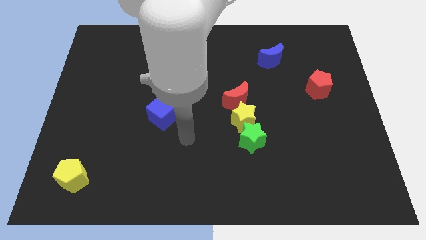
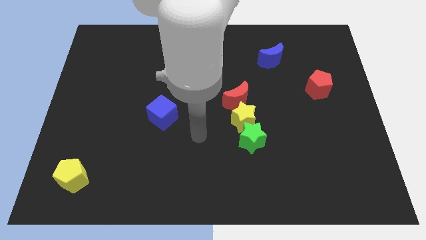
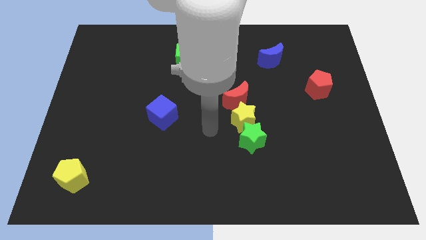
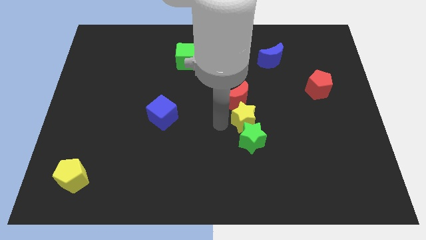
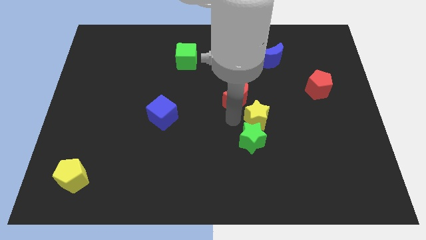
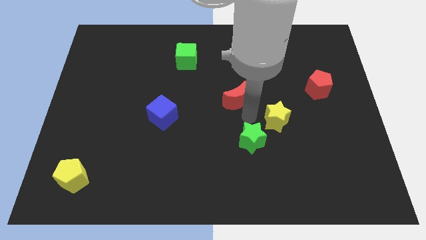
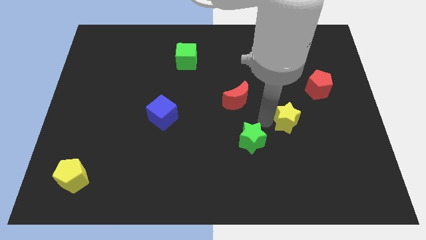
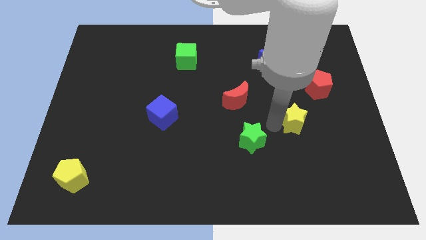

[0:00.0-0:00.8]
move the green star away from the yellow star

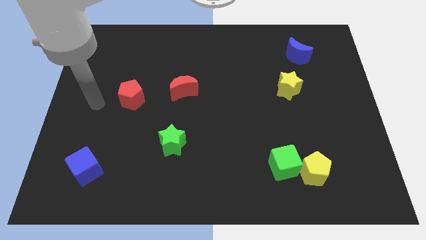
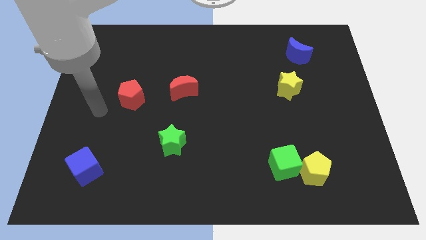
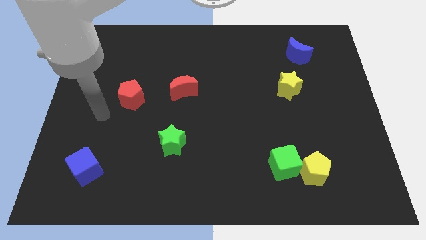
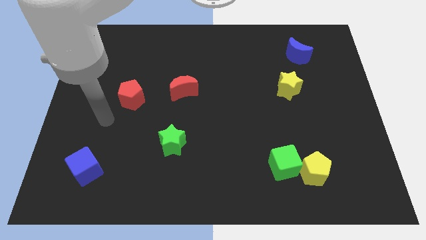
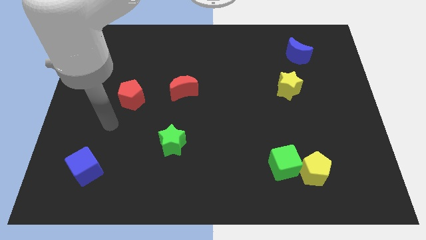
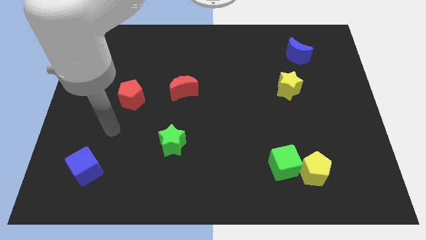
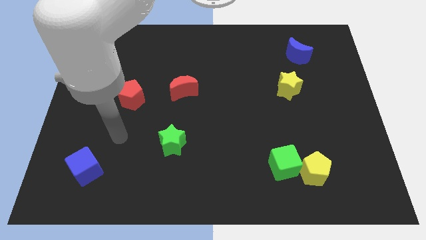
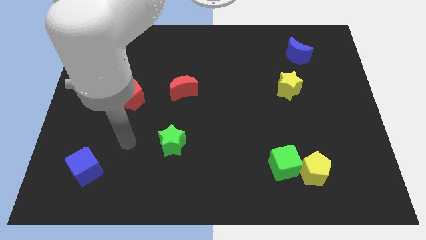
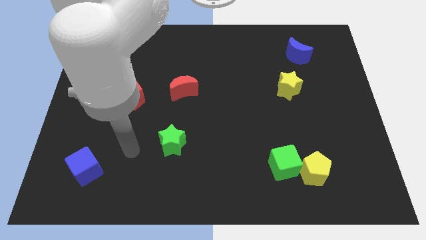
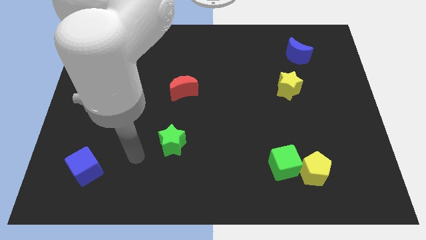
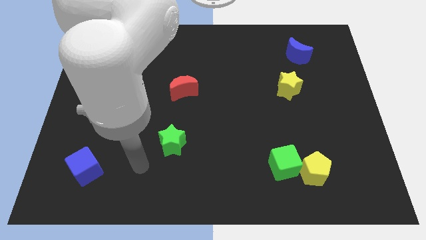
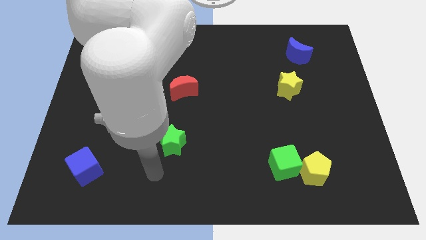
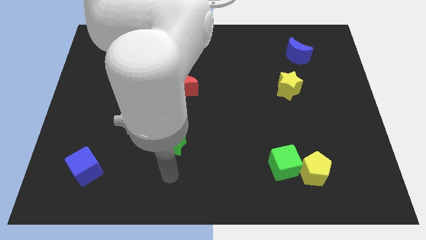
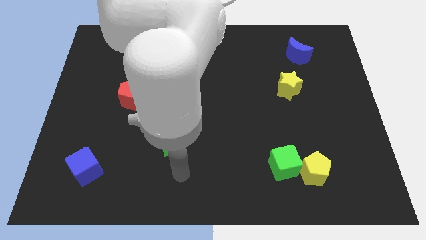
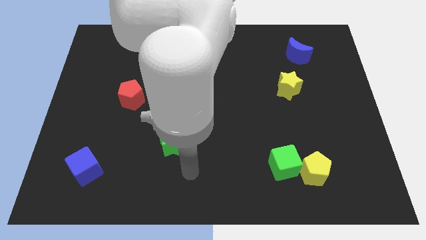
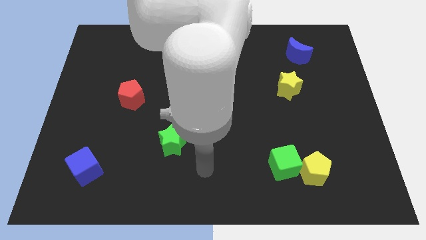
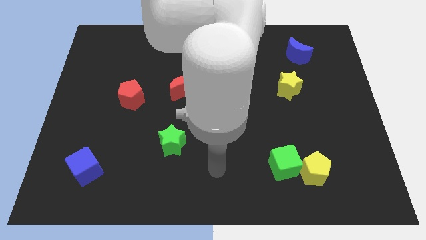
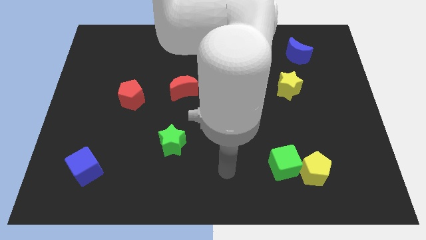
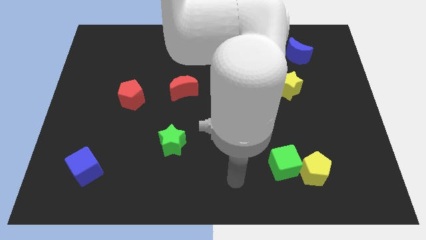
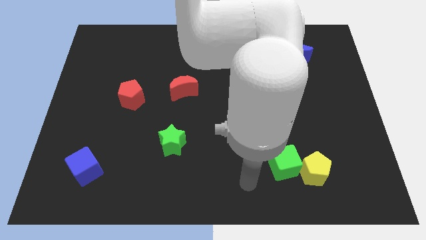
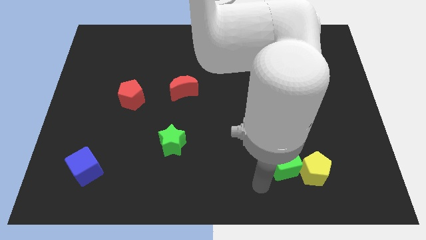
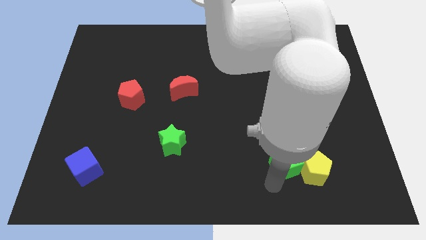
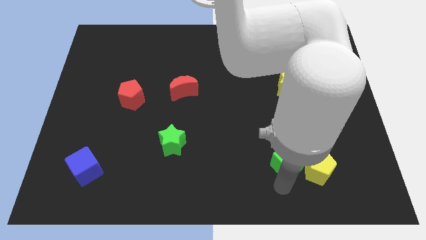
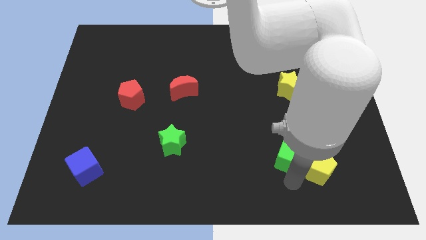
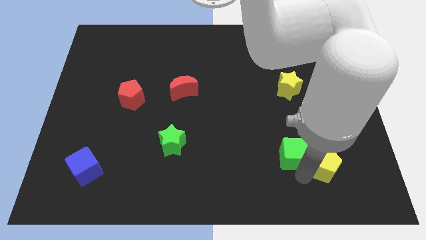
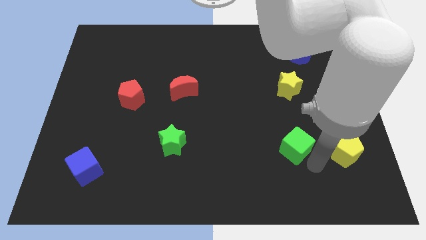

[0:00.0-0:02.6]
separate the green cube from the yellow pentagon

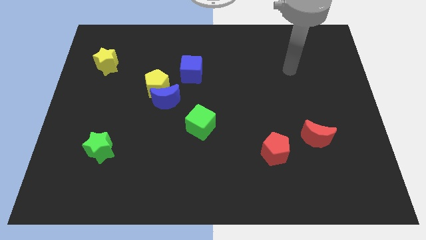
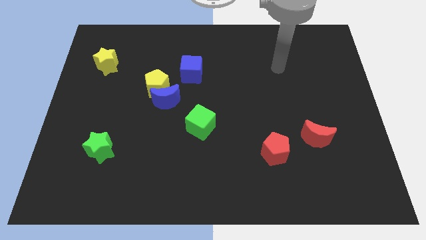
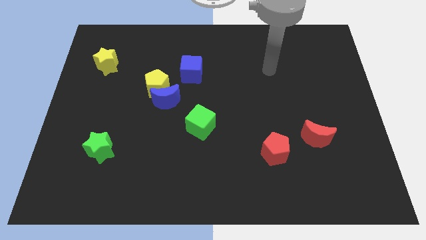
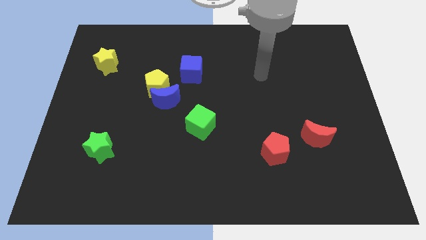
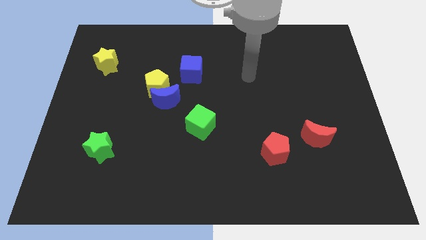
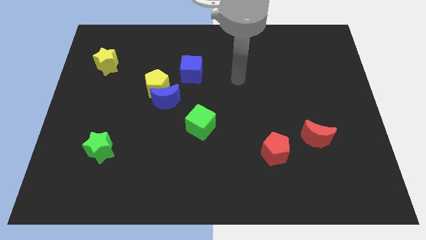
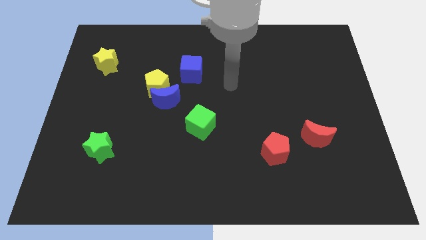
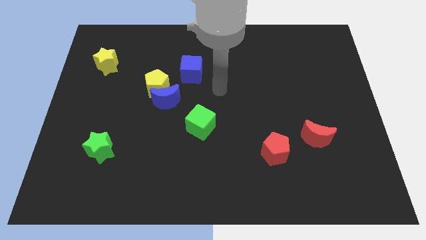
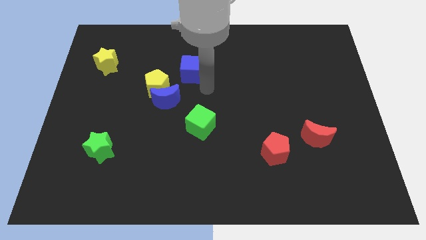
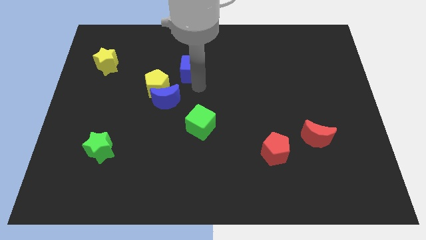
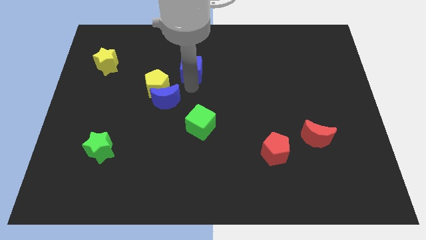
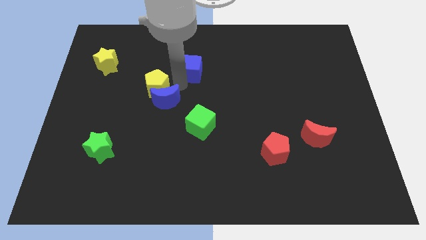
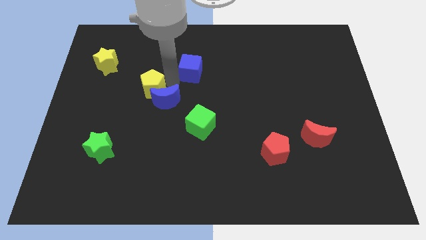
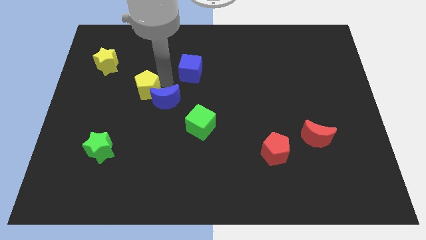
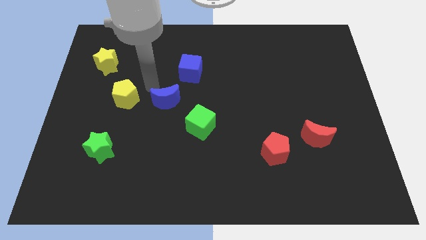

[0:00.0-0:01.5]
separate the blue moon from the yellow pentagon

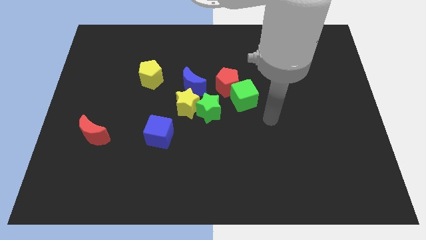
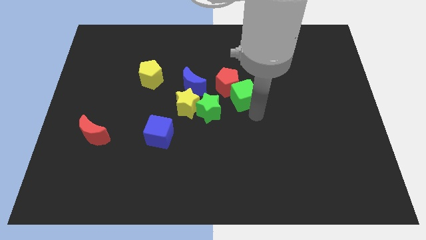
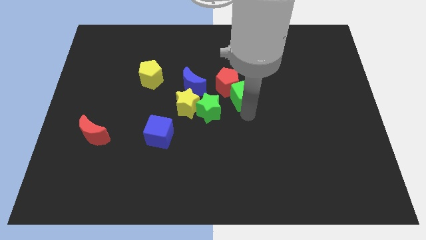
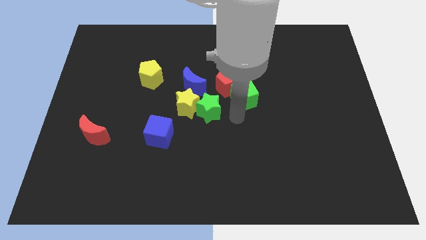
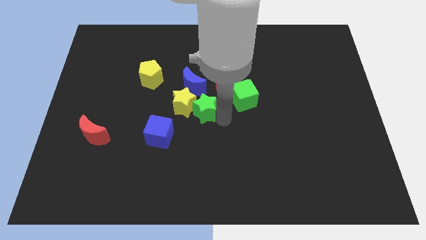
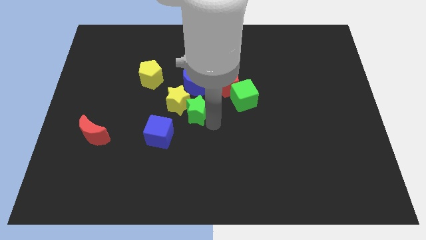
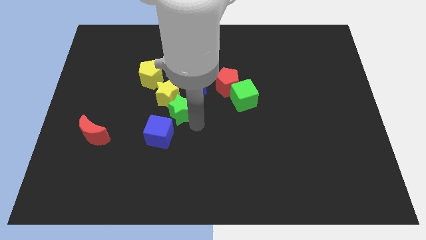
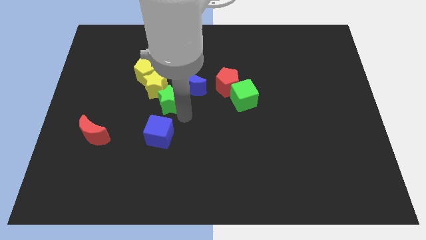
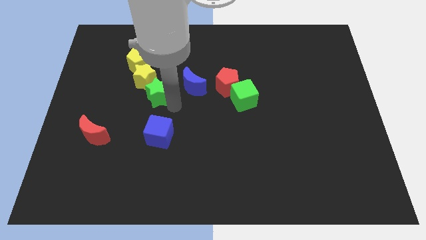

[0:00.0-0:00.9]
separate the yellow star from the green star, blue moon, and blue cube

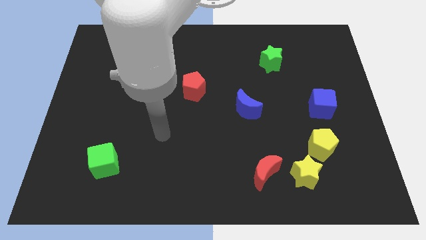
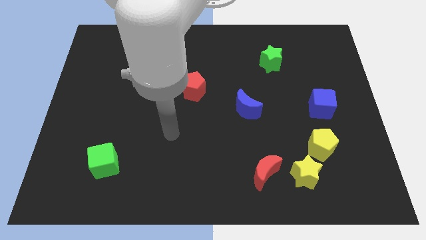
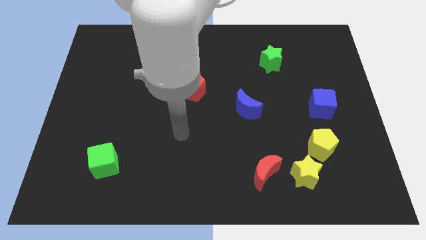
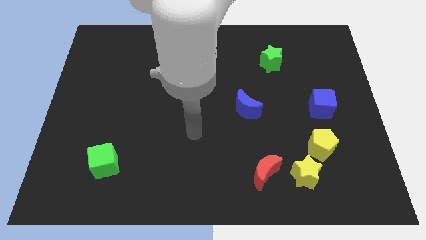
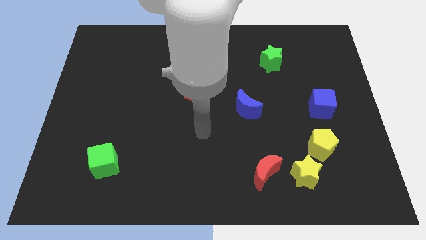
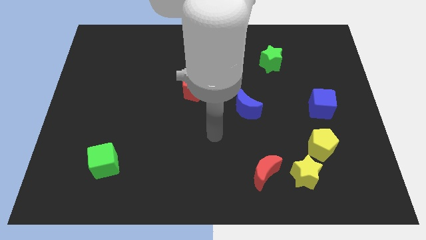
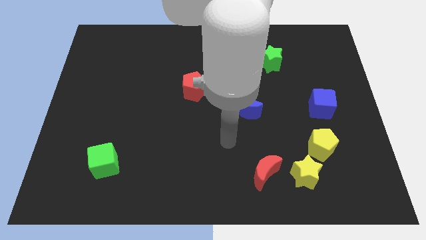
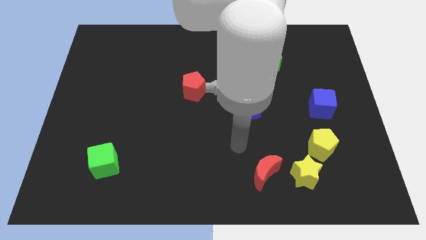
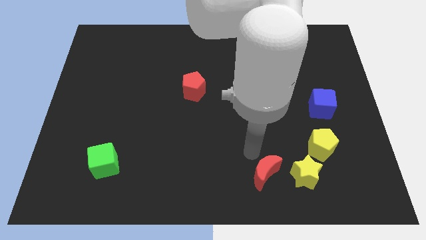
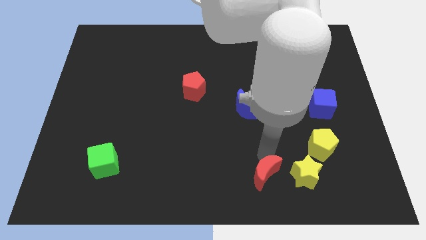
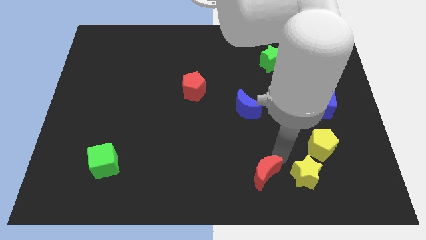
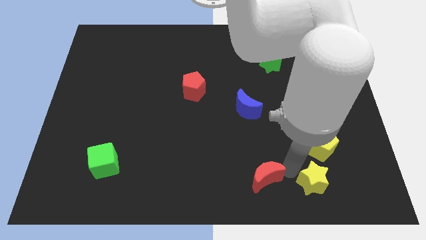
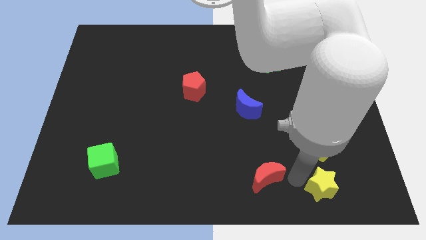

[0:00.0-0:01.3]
separate the red moon from the yellow star

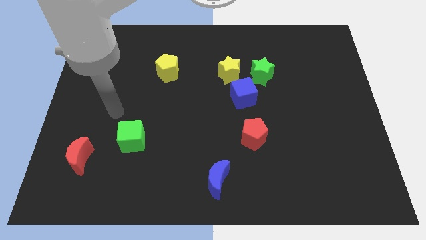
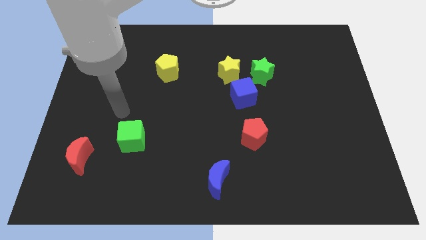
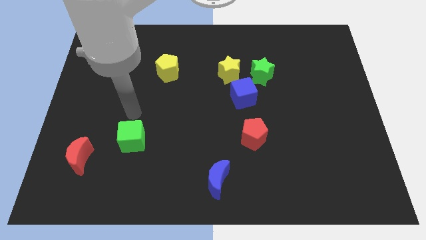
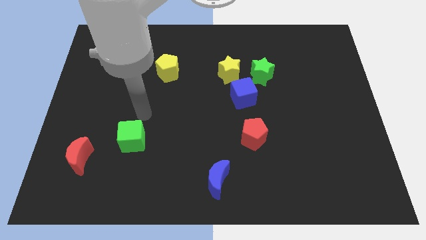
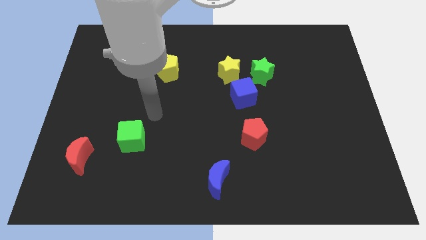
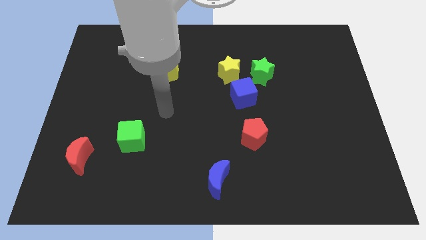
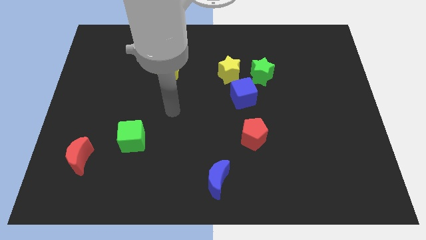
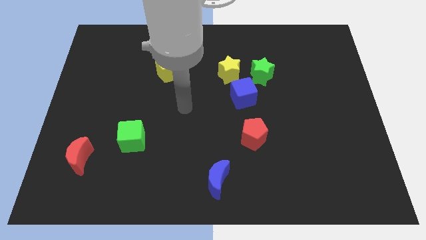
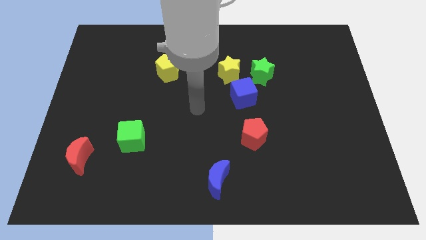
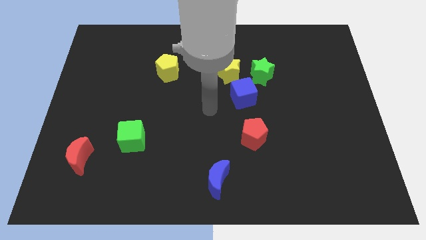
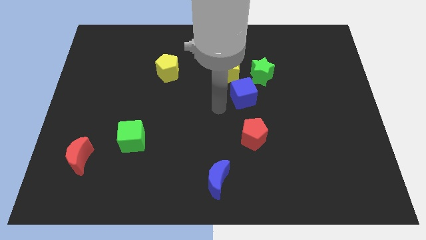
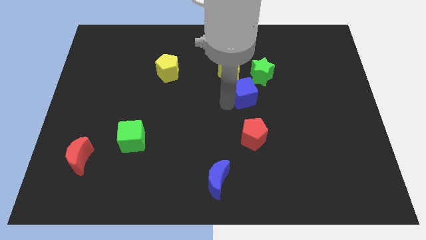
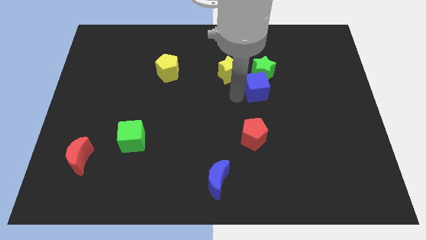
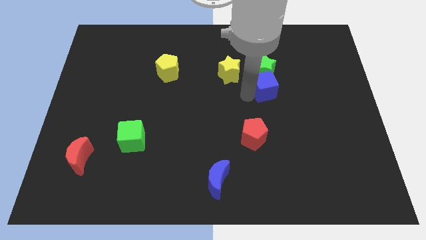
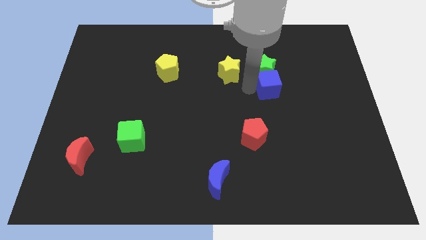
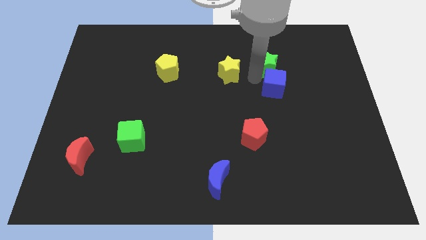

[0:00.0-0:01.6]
pull the yellow star apart from the green star and blue cube

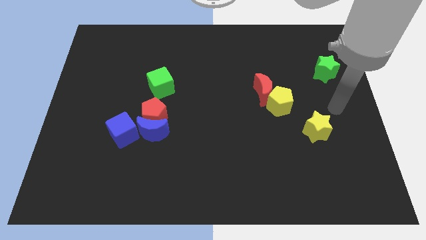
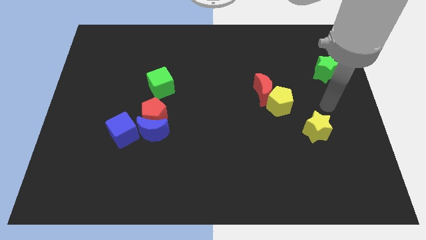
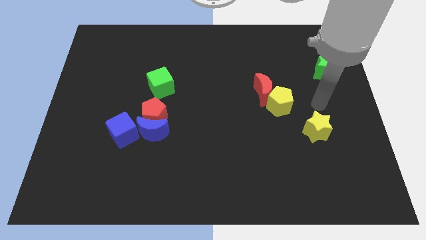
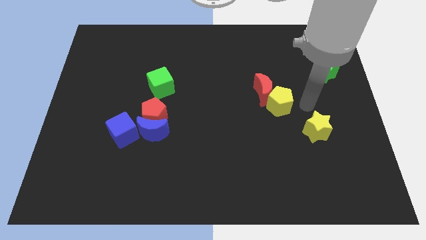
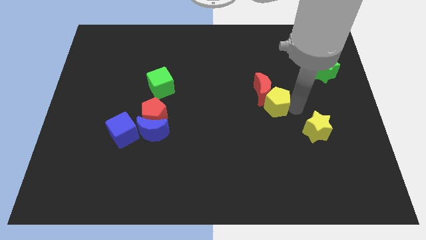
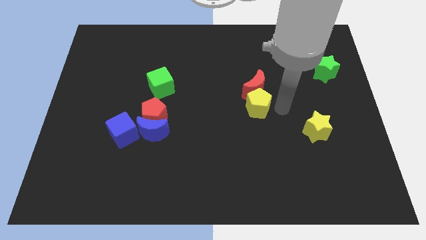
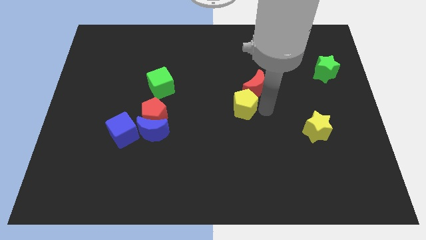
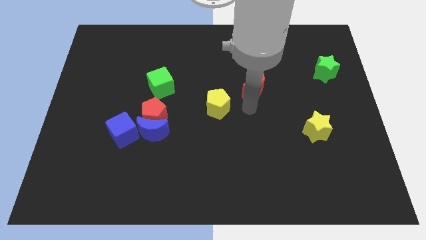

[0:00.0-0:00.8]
pull the red moon apart from the yellow pentagon

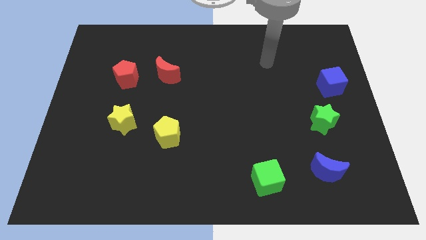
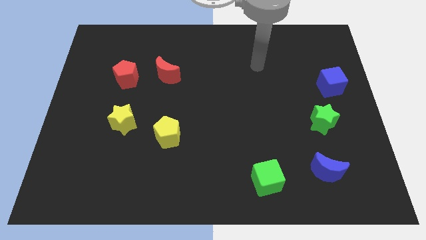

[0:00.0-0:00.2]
move the red moon away from the red pentagon
